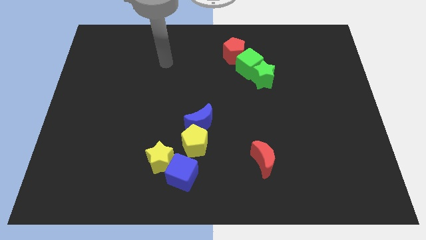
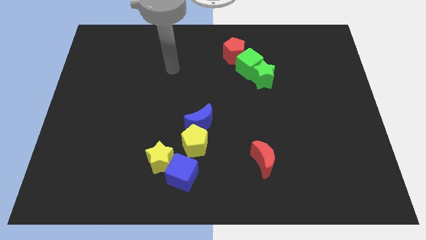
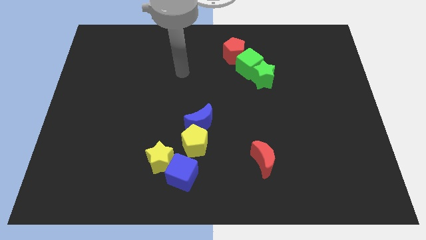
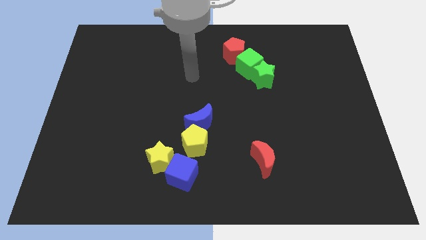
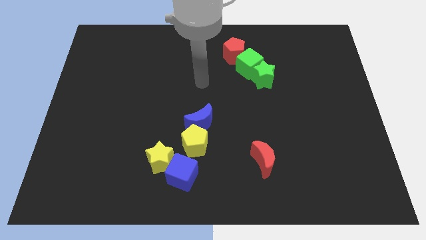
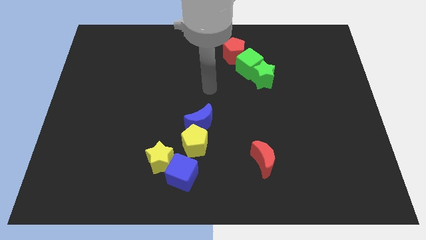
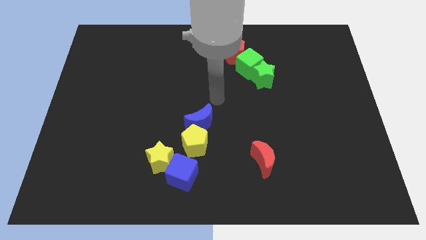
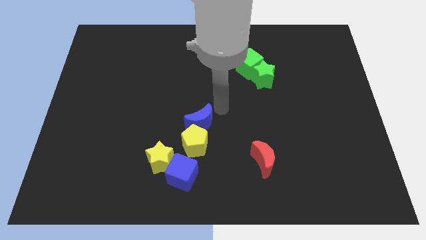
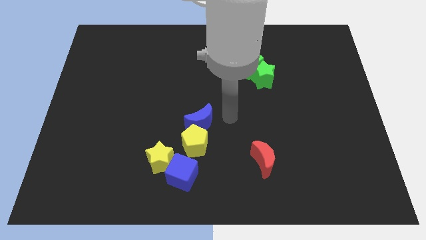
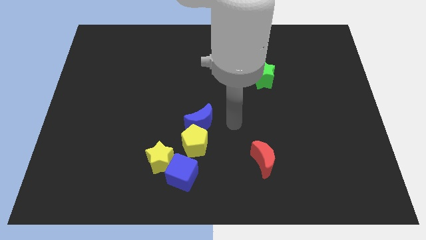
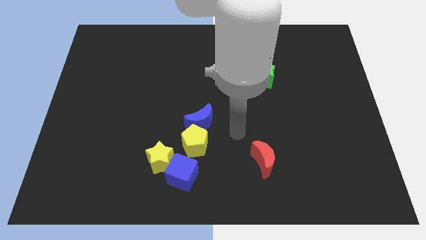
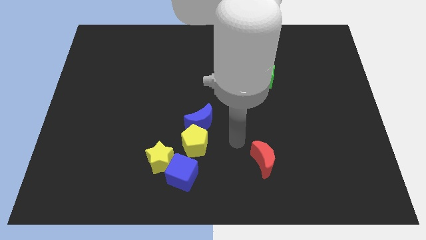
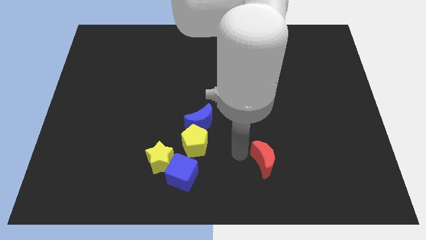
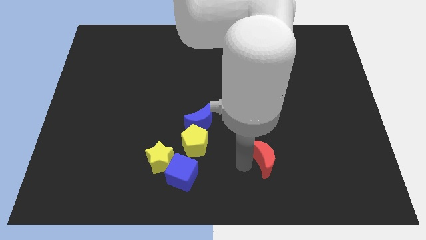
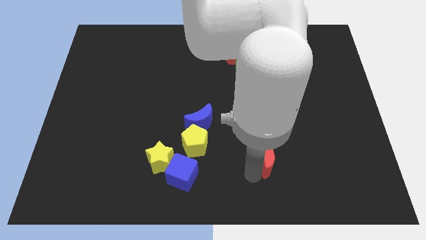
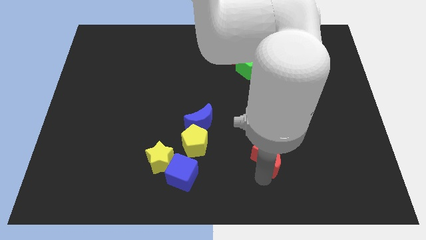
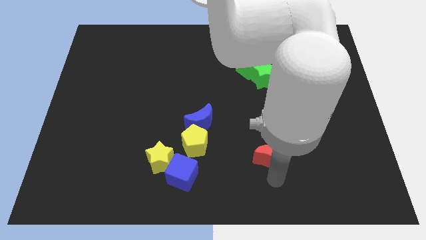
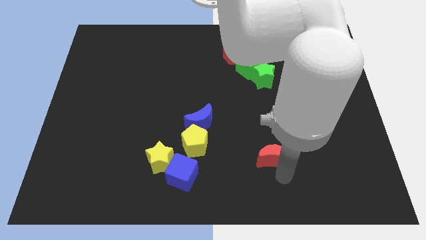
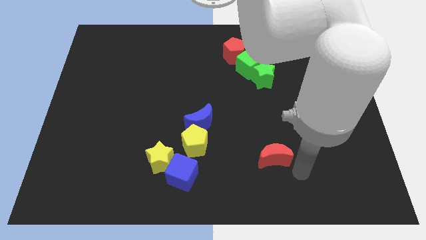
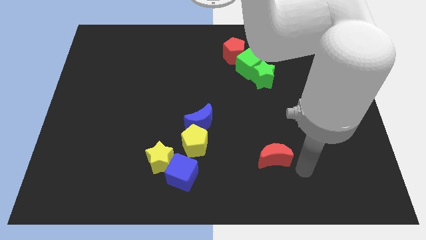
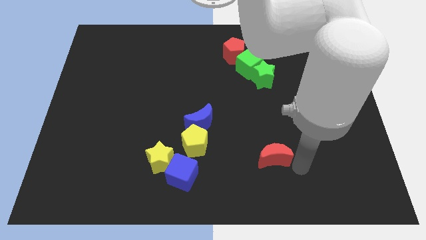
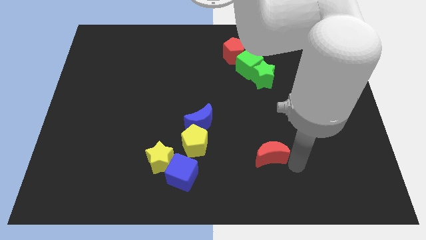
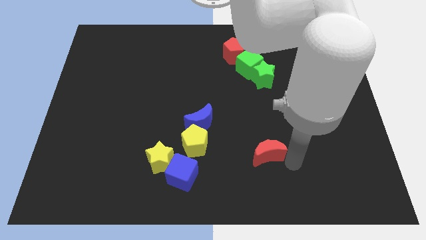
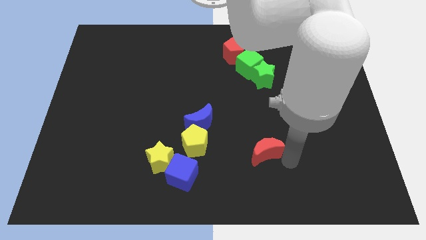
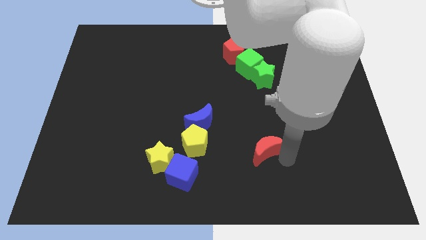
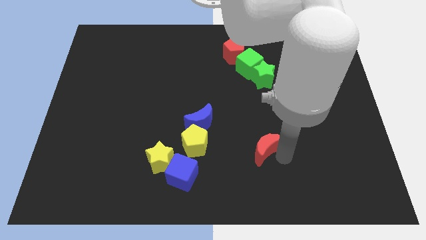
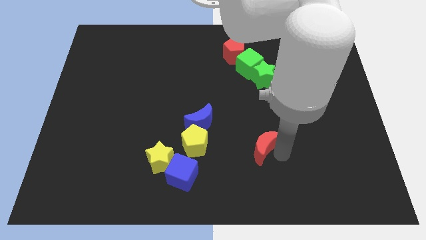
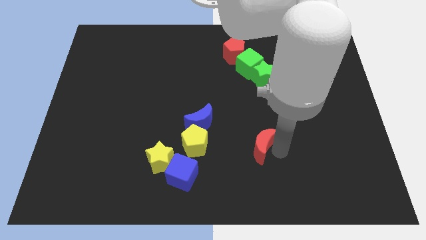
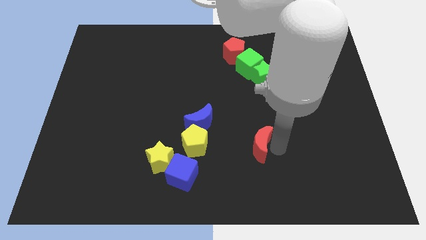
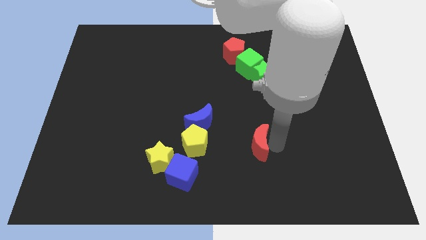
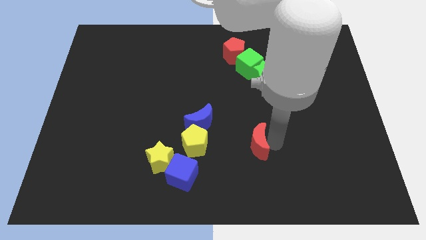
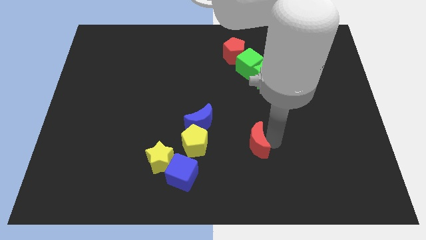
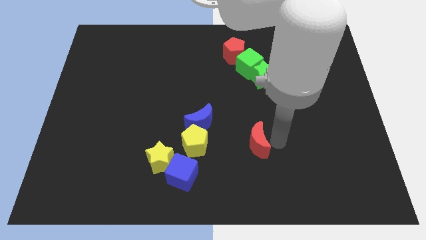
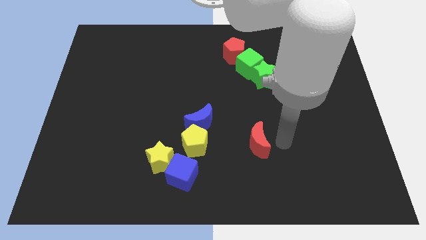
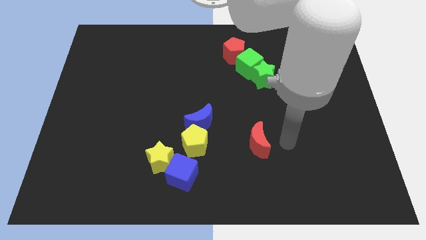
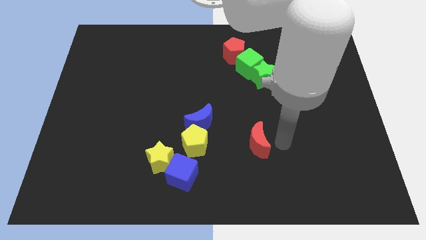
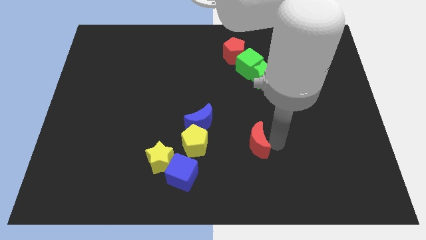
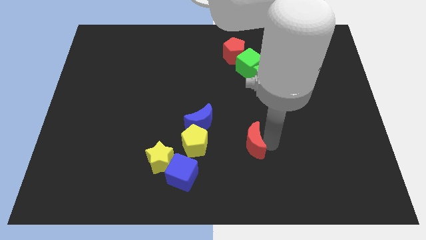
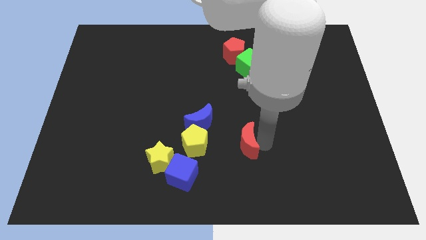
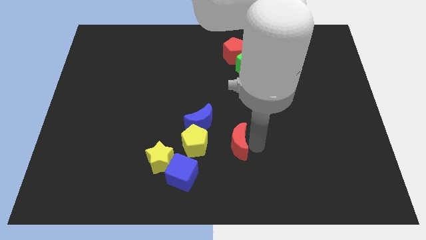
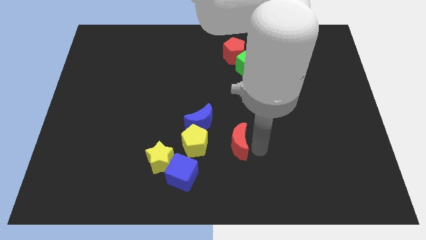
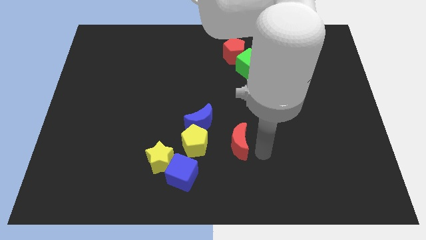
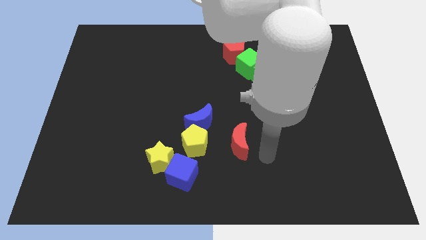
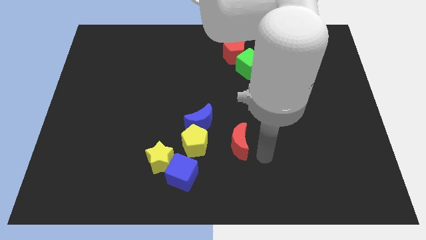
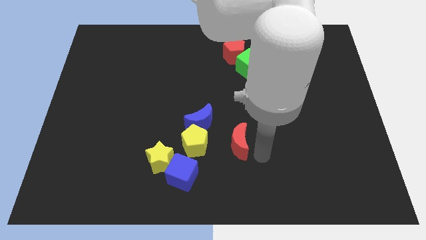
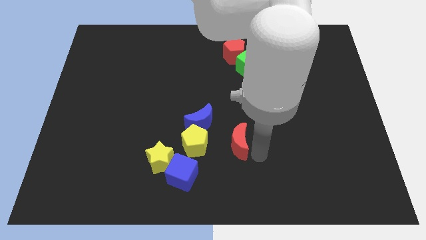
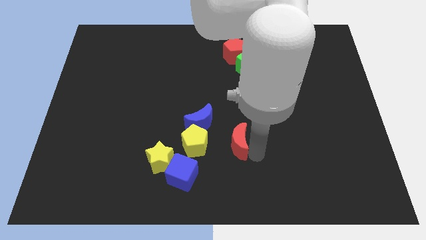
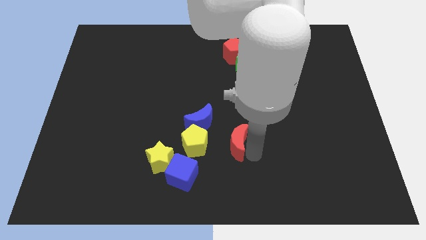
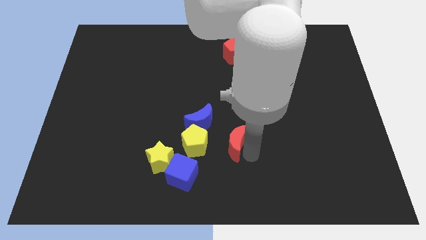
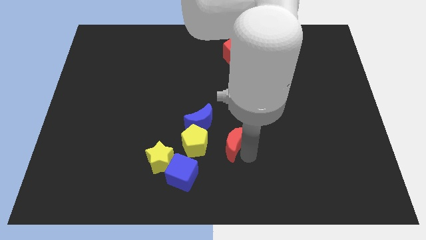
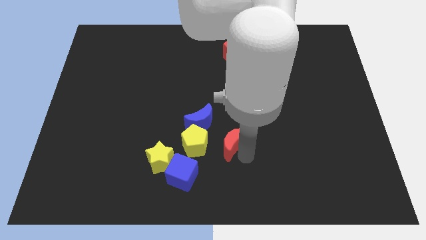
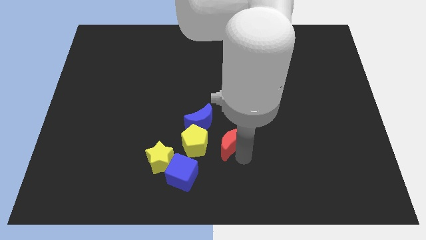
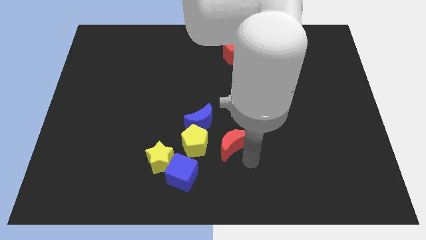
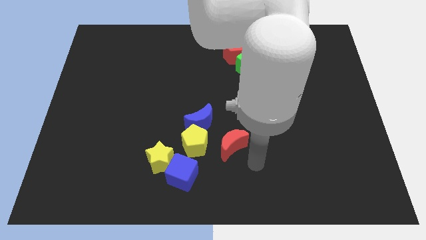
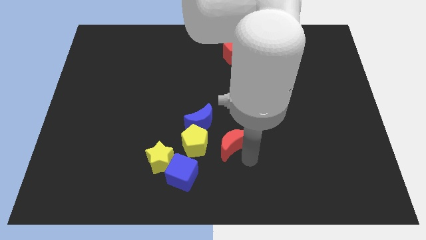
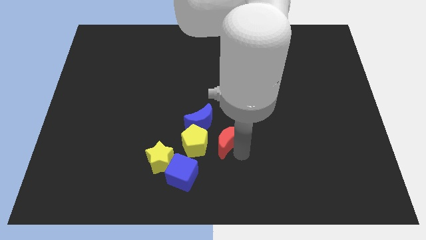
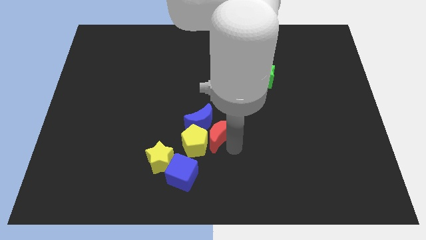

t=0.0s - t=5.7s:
put the red moon next to the blue moon

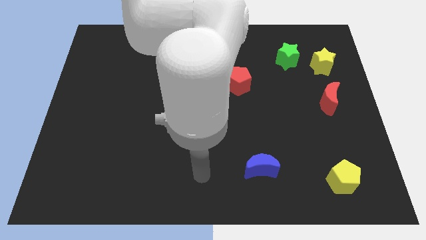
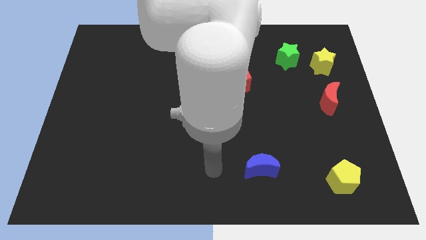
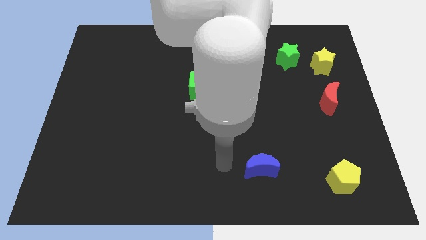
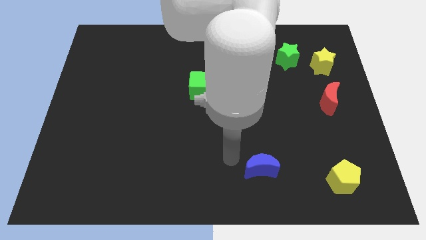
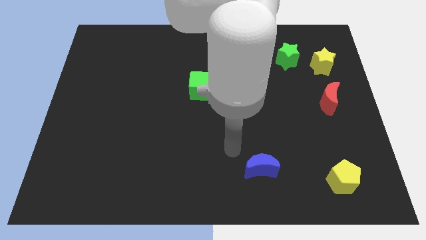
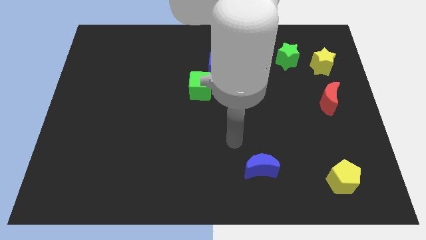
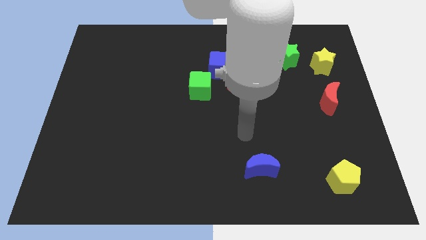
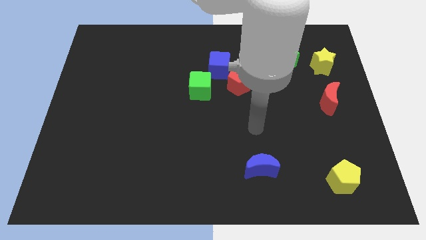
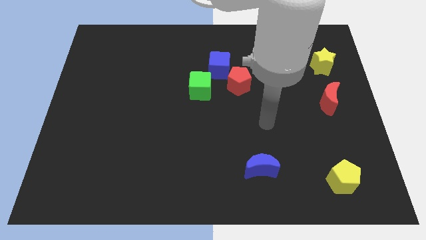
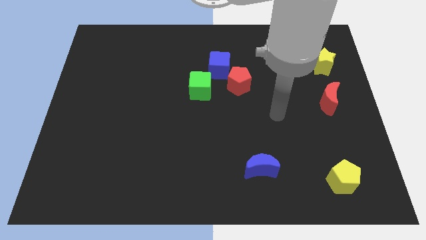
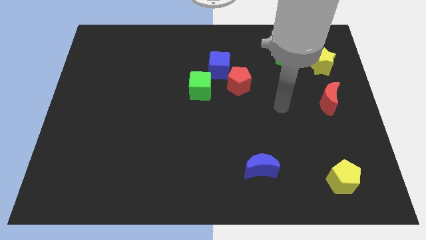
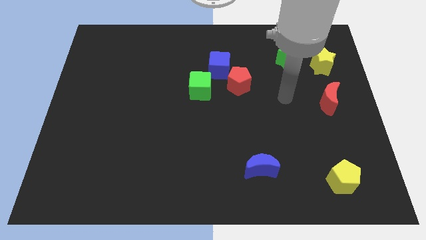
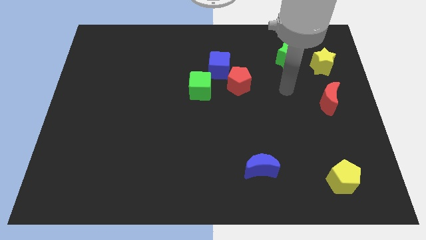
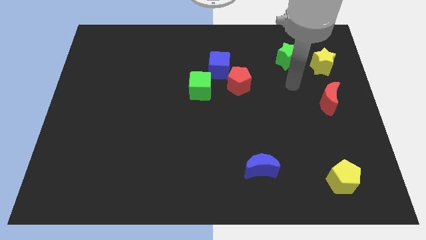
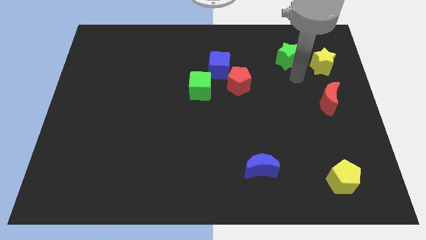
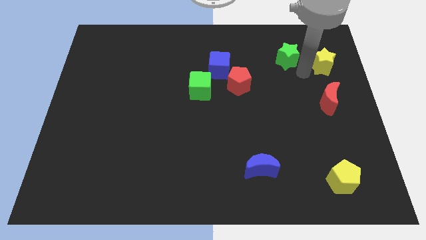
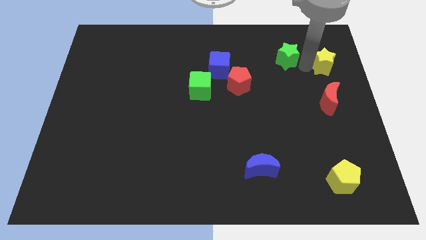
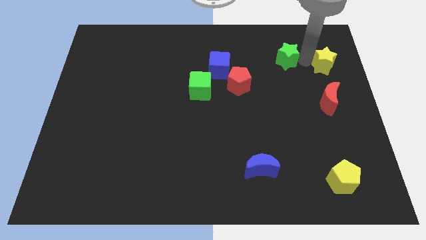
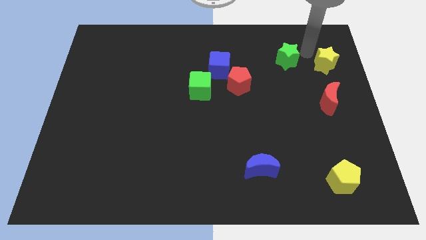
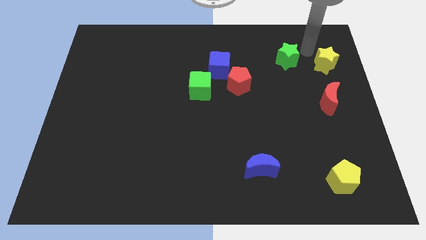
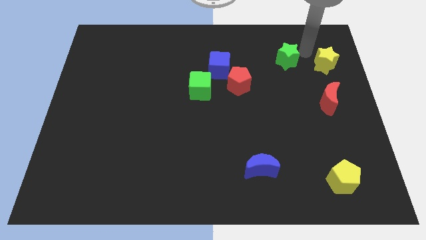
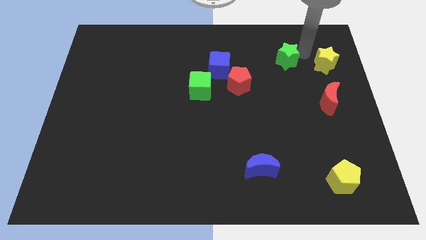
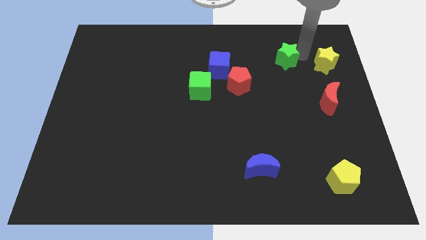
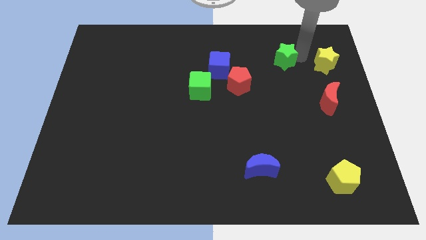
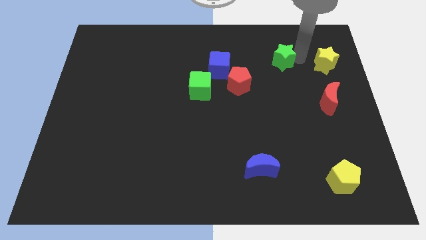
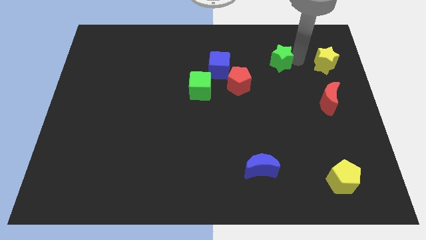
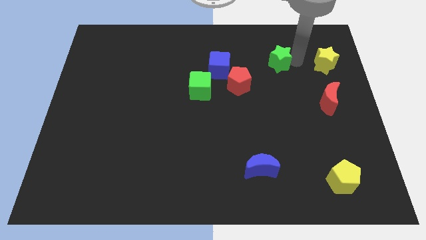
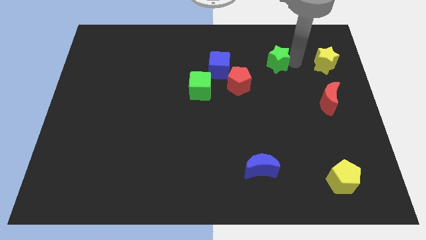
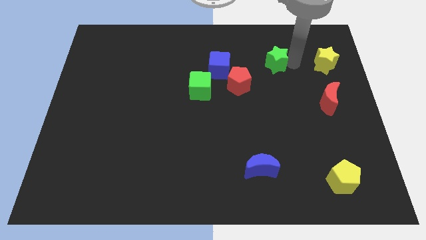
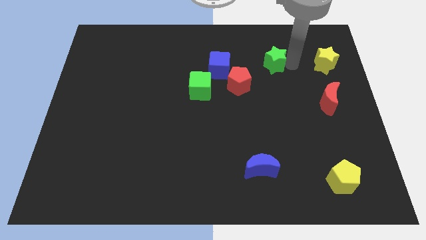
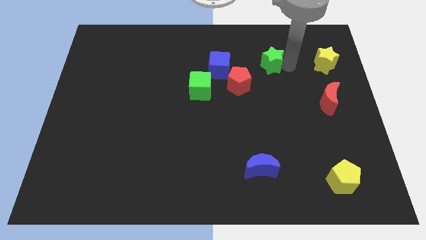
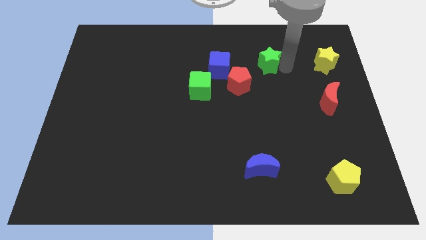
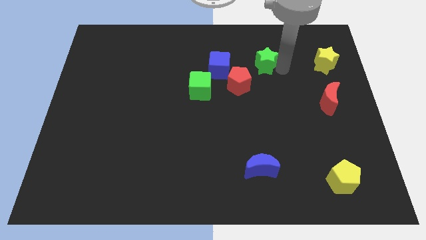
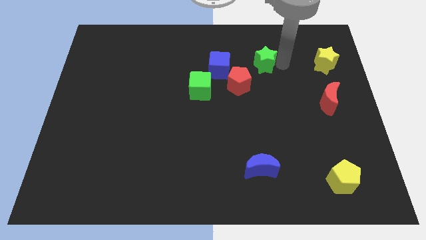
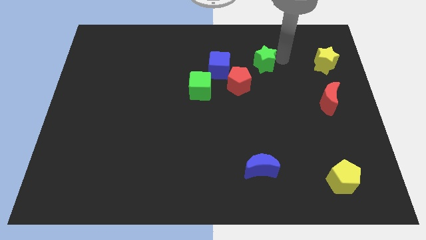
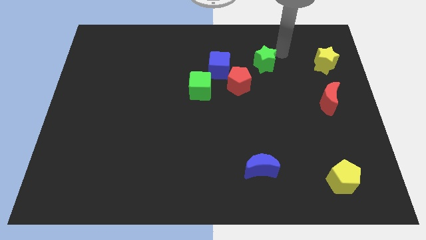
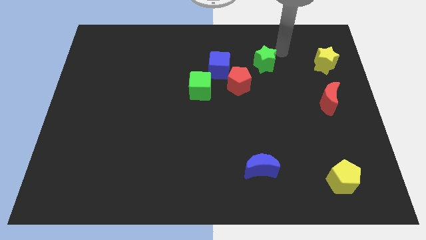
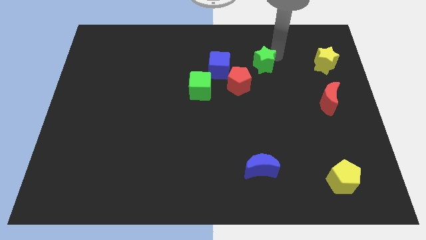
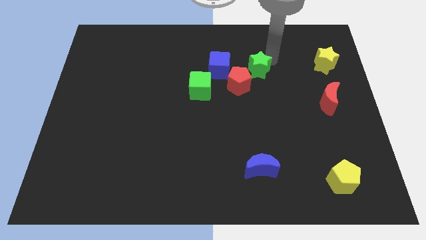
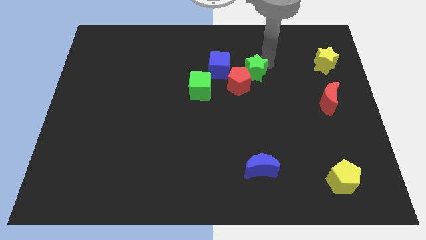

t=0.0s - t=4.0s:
slide the green star close to the red pentagon
